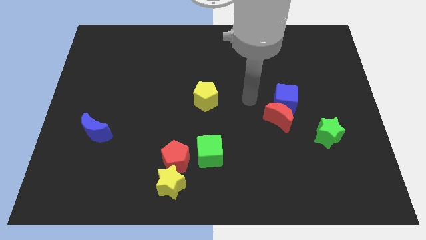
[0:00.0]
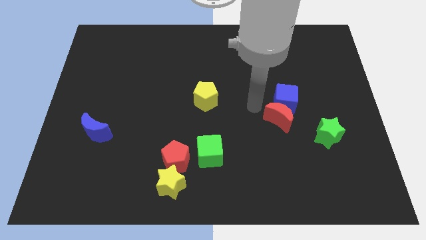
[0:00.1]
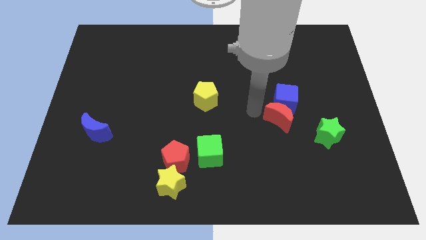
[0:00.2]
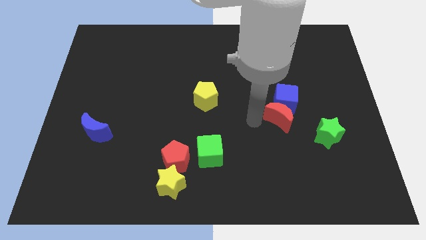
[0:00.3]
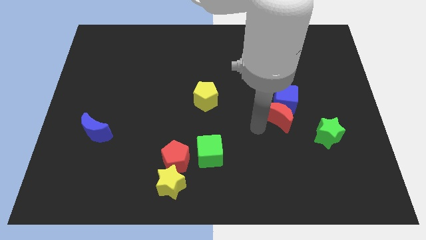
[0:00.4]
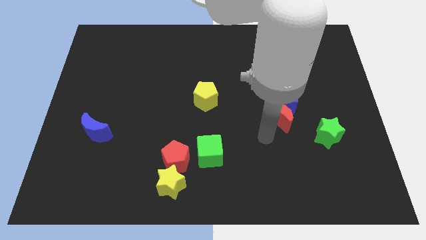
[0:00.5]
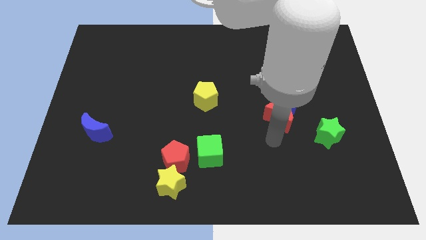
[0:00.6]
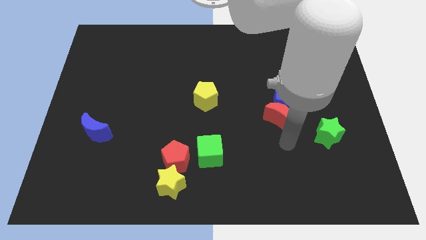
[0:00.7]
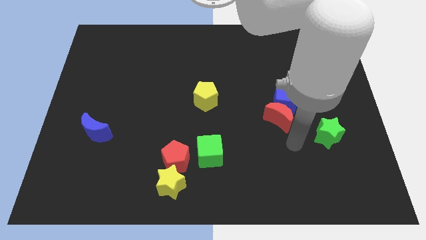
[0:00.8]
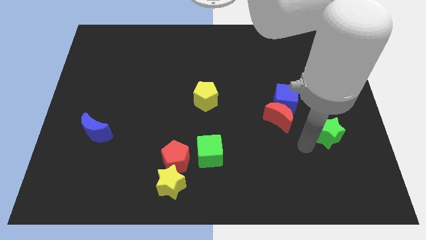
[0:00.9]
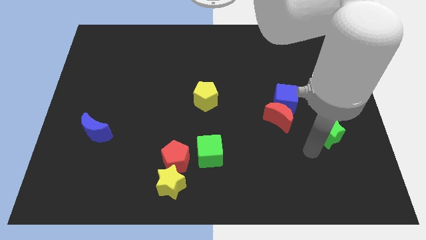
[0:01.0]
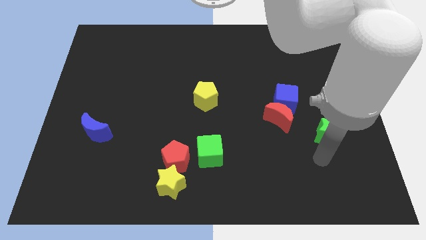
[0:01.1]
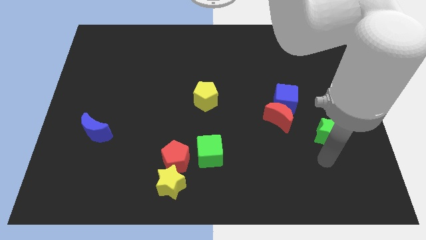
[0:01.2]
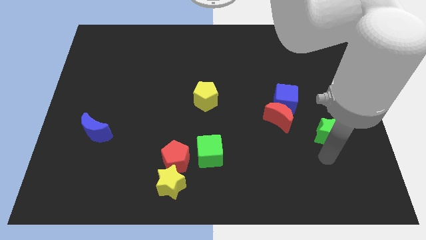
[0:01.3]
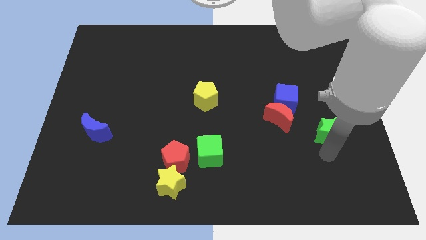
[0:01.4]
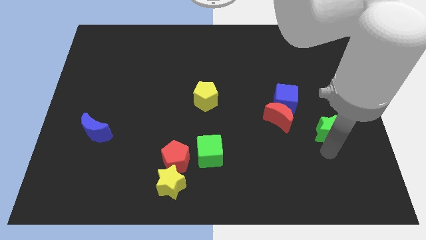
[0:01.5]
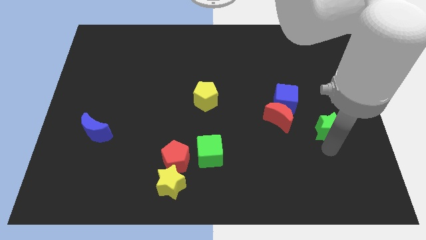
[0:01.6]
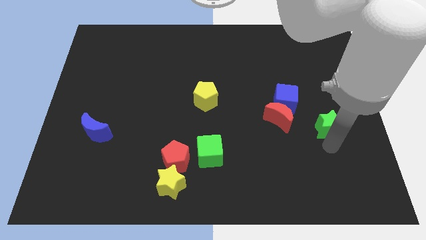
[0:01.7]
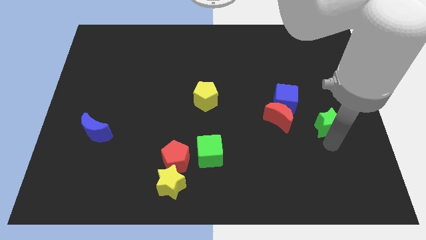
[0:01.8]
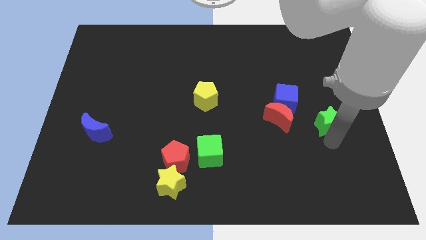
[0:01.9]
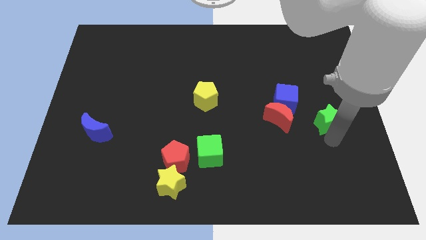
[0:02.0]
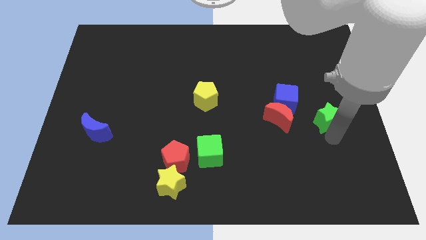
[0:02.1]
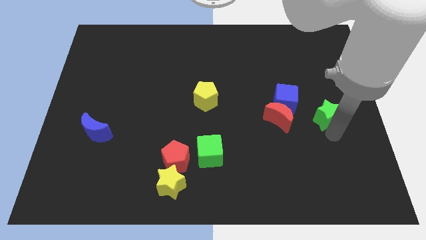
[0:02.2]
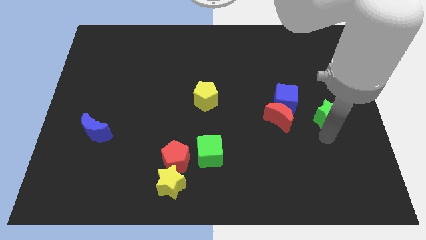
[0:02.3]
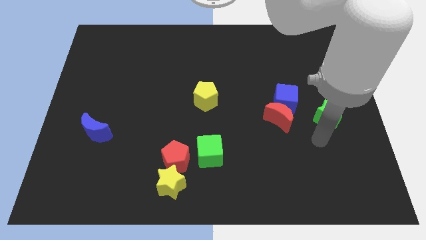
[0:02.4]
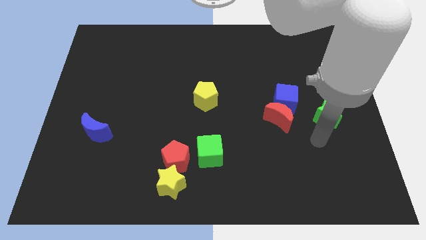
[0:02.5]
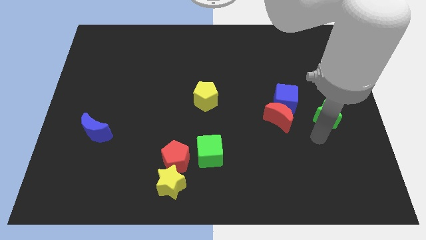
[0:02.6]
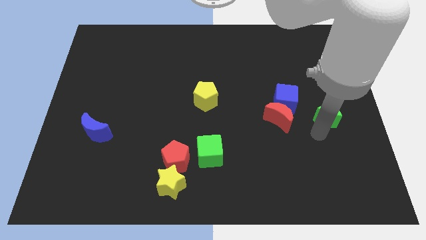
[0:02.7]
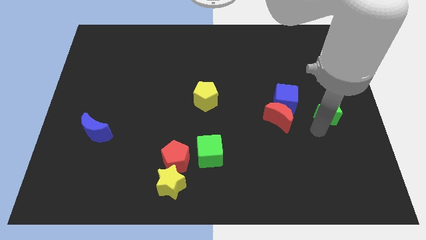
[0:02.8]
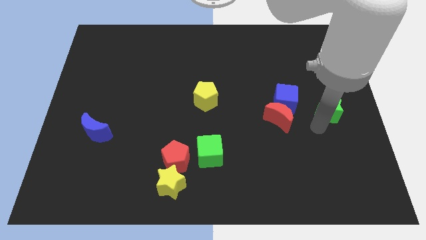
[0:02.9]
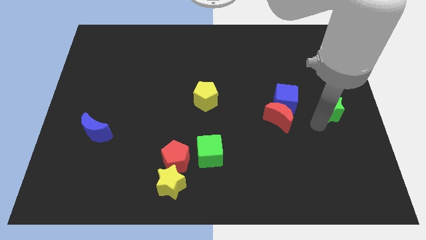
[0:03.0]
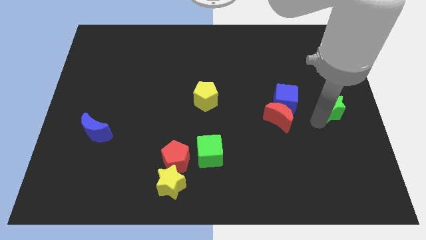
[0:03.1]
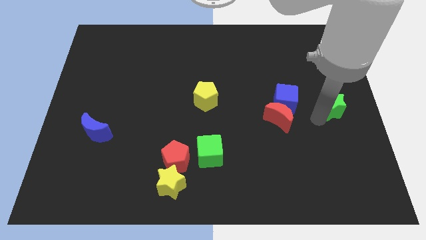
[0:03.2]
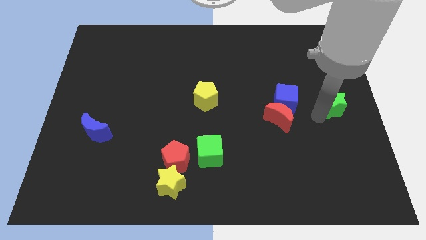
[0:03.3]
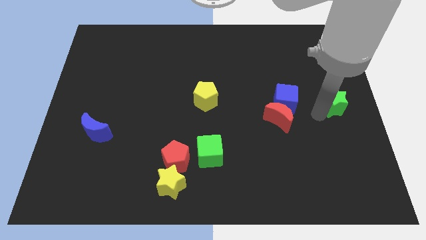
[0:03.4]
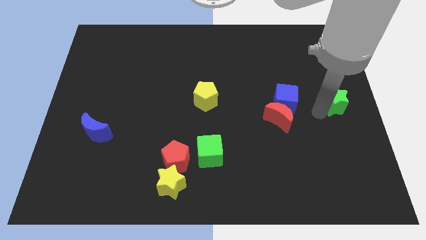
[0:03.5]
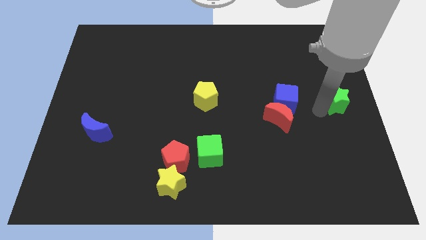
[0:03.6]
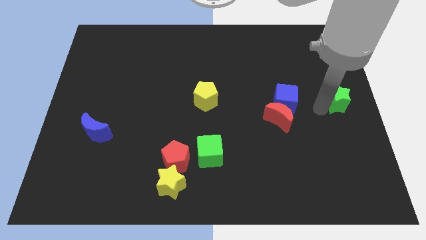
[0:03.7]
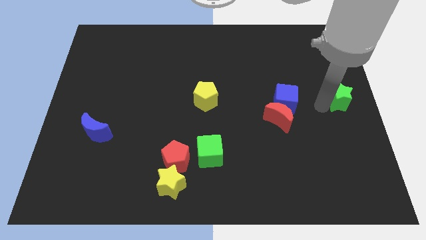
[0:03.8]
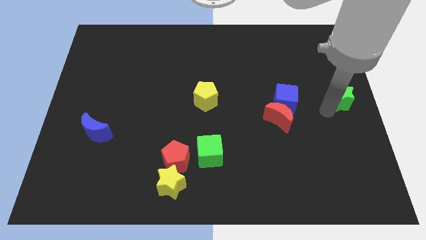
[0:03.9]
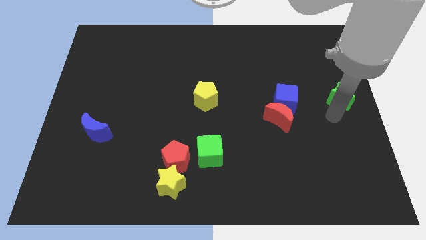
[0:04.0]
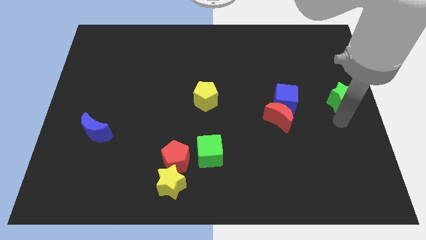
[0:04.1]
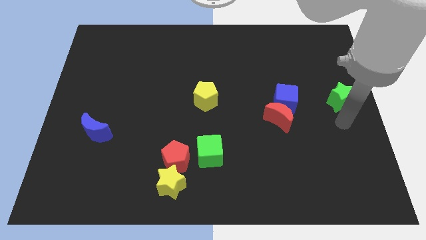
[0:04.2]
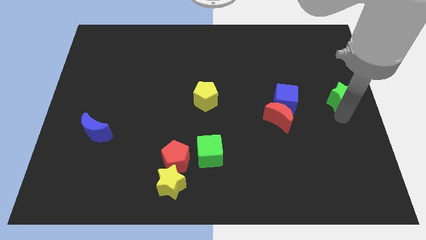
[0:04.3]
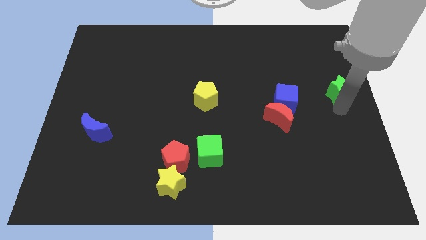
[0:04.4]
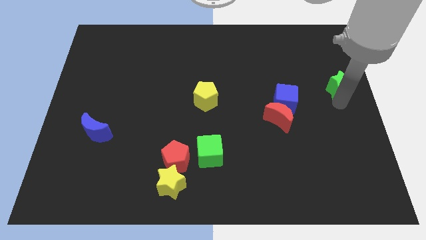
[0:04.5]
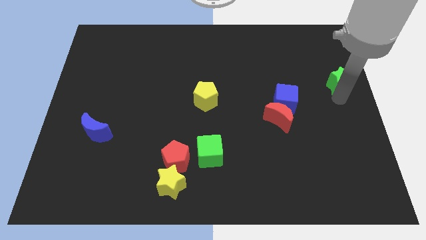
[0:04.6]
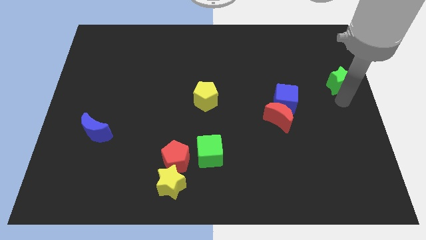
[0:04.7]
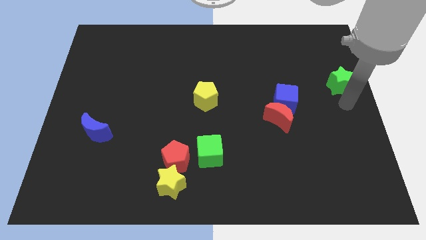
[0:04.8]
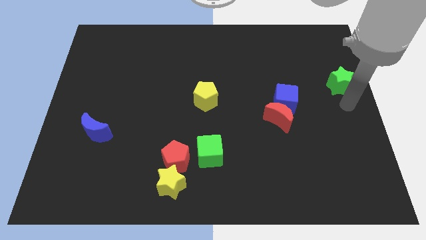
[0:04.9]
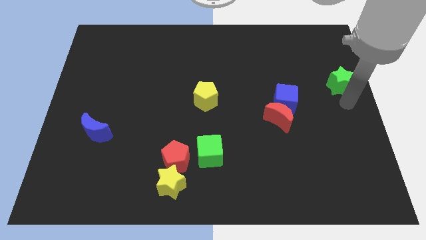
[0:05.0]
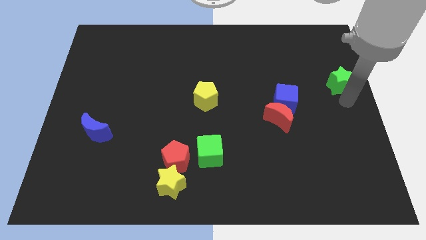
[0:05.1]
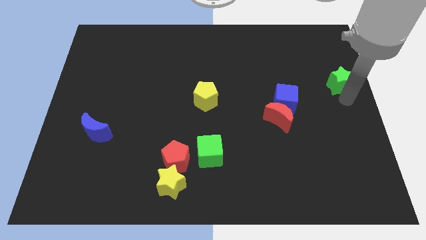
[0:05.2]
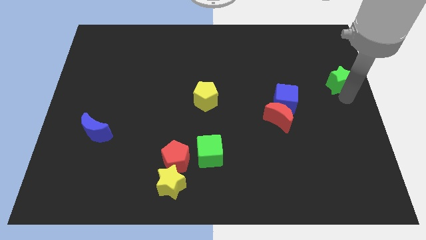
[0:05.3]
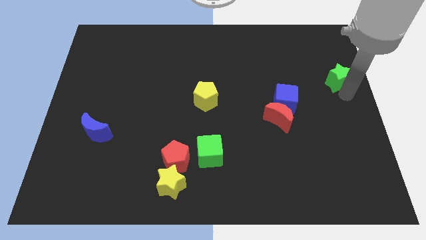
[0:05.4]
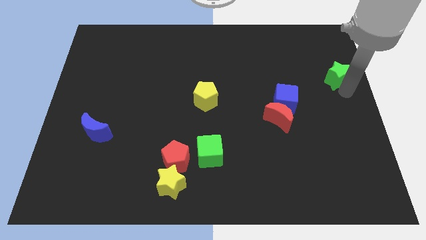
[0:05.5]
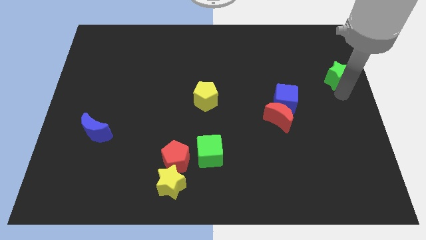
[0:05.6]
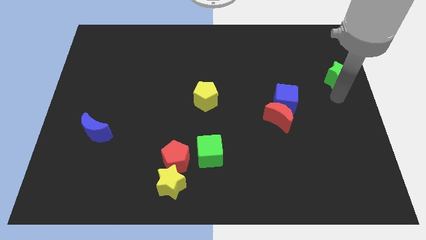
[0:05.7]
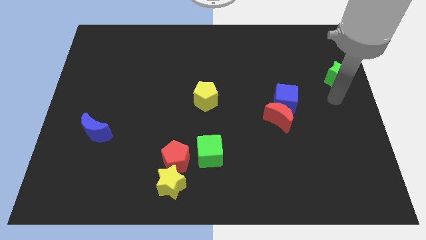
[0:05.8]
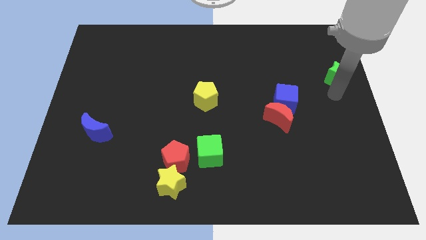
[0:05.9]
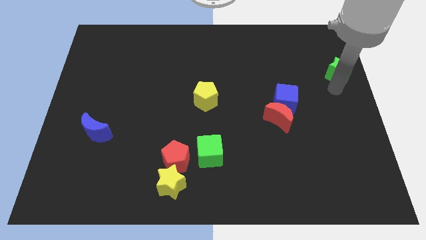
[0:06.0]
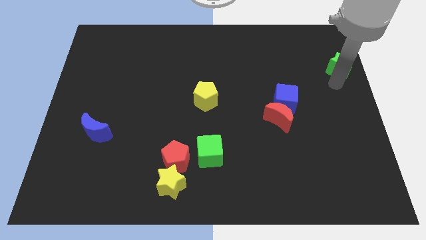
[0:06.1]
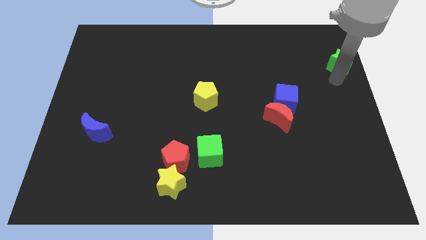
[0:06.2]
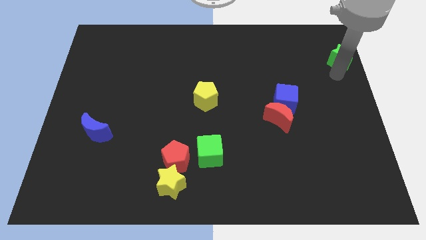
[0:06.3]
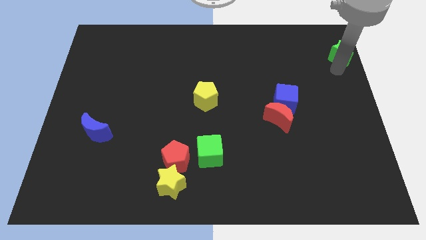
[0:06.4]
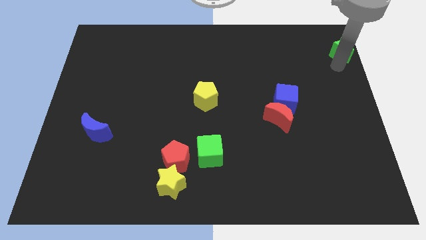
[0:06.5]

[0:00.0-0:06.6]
push the green star to the top right
